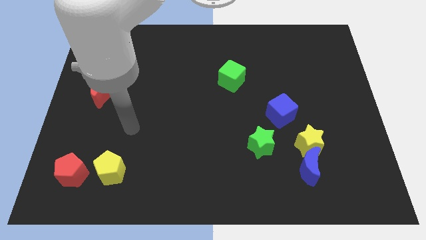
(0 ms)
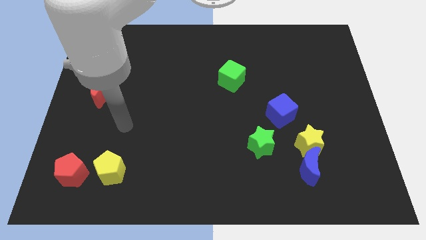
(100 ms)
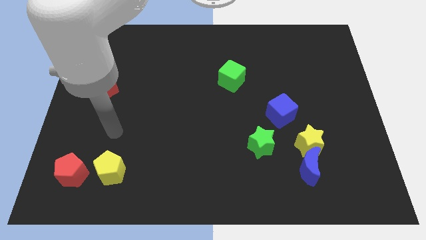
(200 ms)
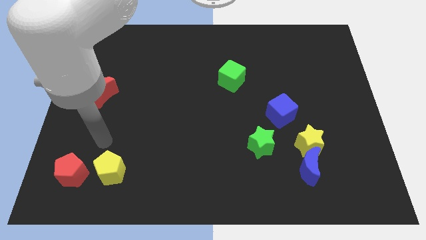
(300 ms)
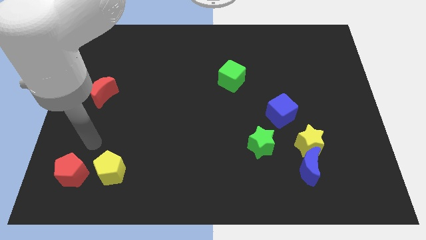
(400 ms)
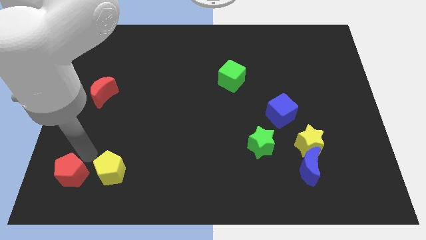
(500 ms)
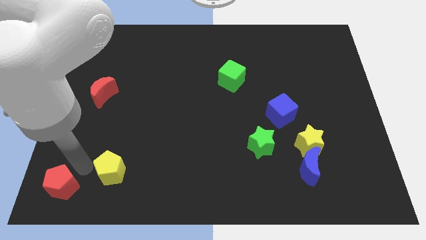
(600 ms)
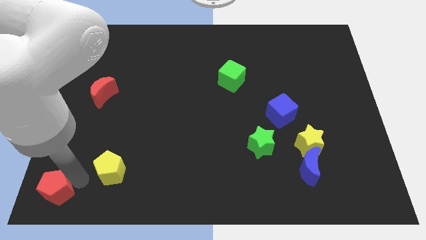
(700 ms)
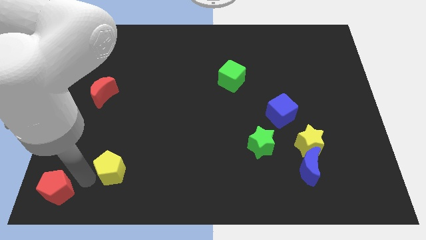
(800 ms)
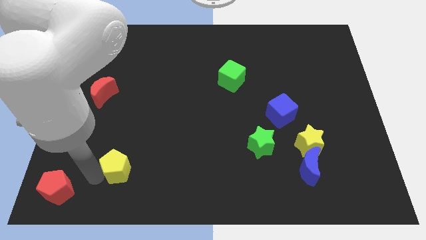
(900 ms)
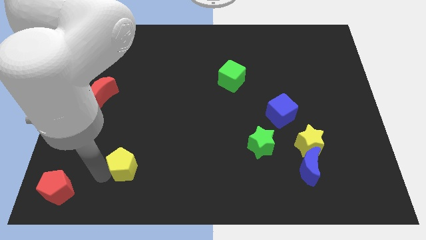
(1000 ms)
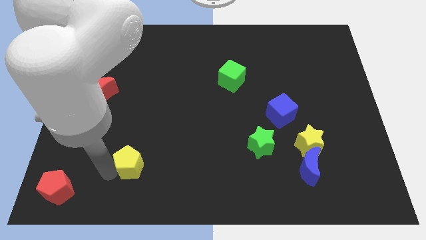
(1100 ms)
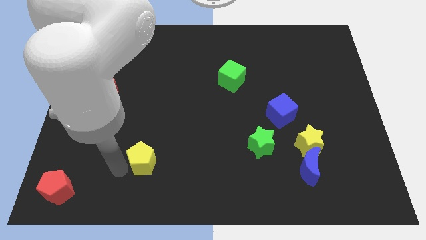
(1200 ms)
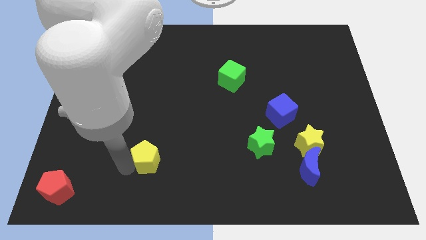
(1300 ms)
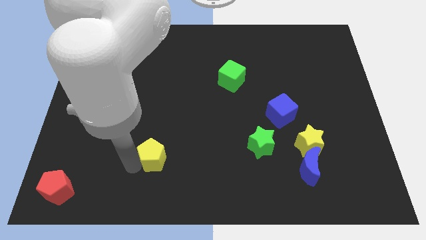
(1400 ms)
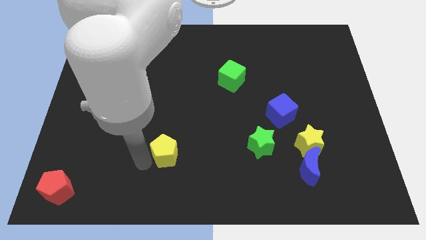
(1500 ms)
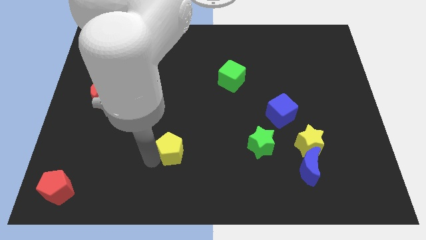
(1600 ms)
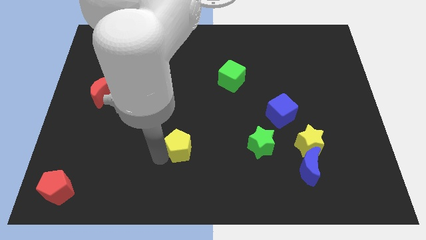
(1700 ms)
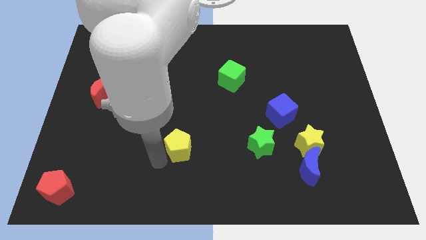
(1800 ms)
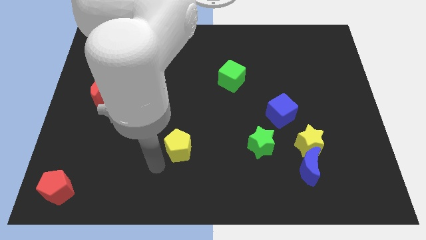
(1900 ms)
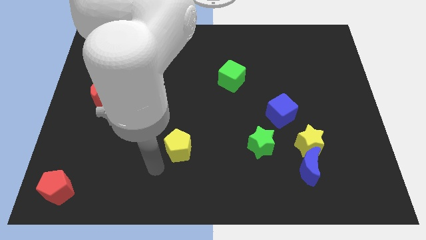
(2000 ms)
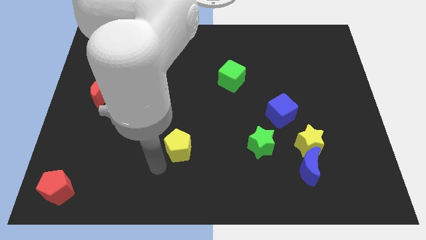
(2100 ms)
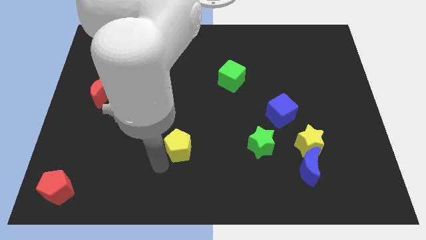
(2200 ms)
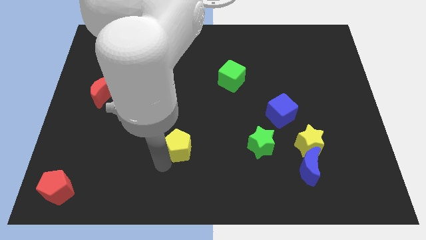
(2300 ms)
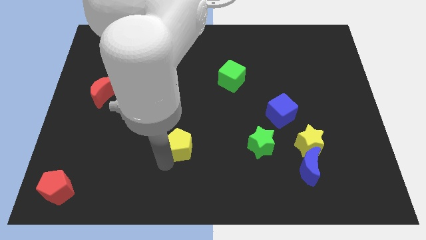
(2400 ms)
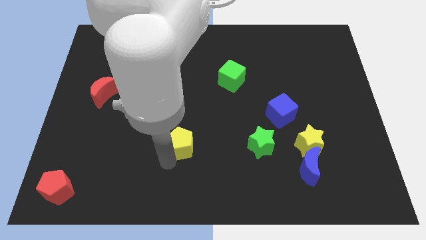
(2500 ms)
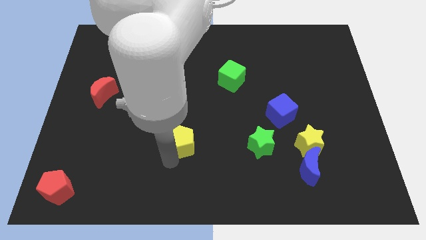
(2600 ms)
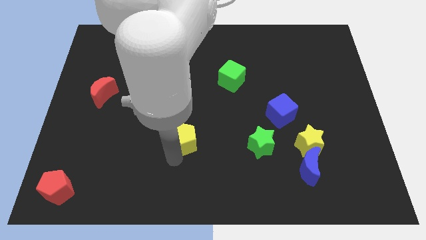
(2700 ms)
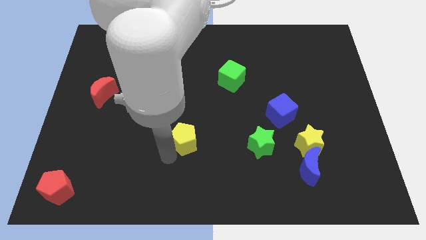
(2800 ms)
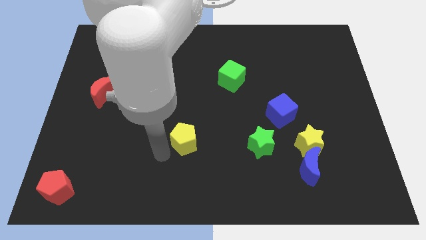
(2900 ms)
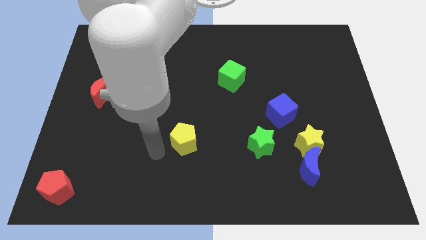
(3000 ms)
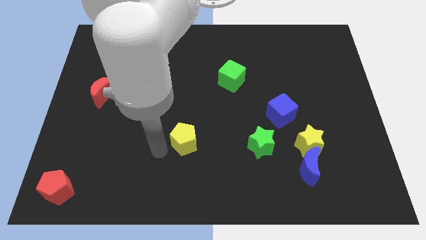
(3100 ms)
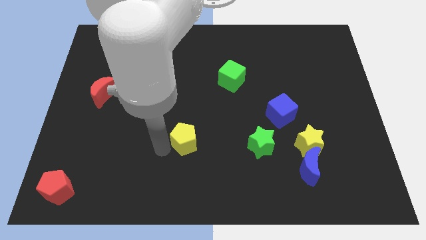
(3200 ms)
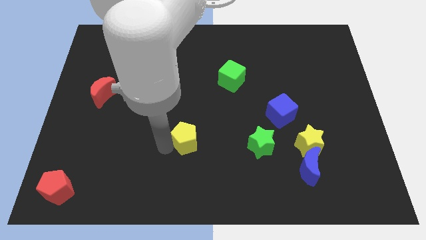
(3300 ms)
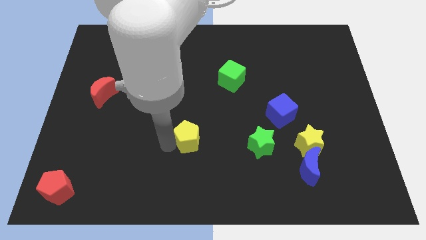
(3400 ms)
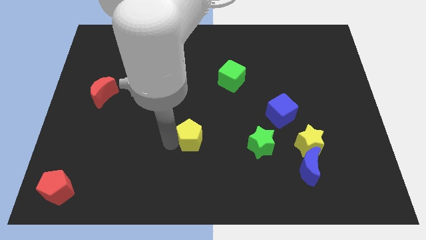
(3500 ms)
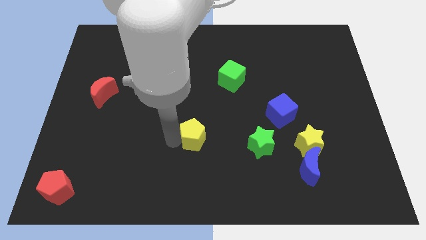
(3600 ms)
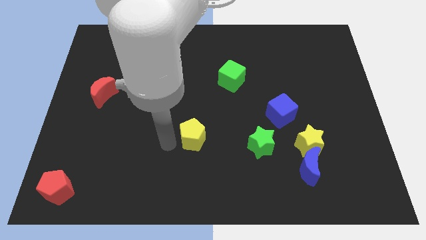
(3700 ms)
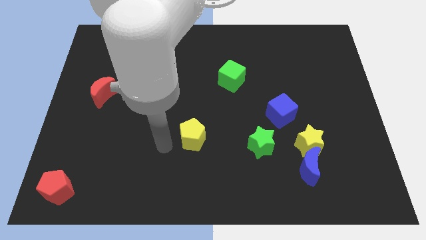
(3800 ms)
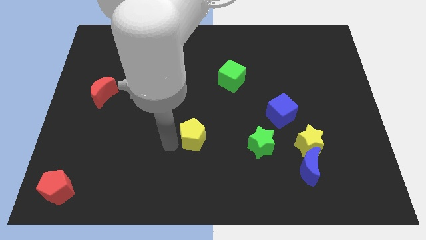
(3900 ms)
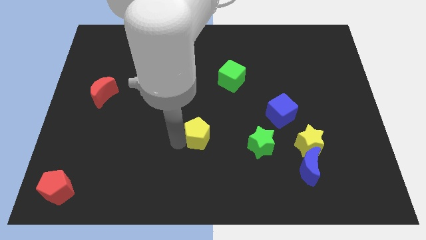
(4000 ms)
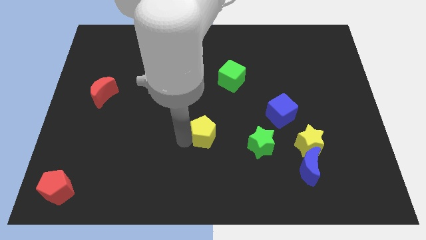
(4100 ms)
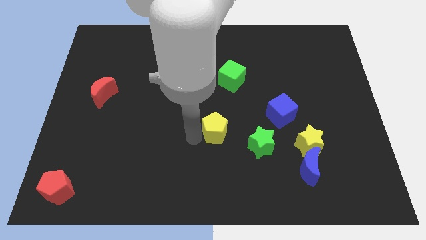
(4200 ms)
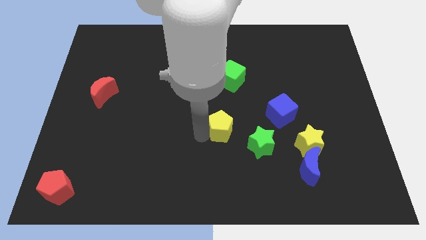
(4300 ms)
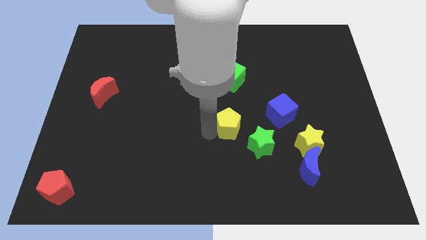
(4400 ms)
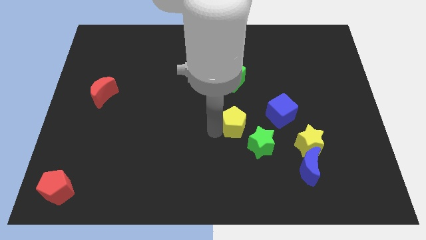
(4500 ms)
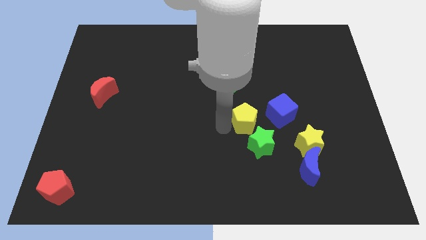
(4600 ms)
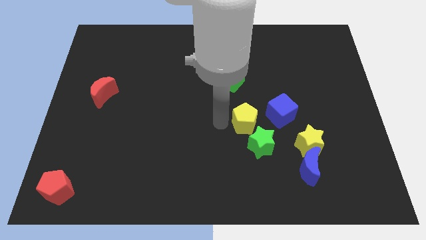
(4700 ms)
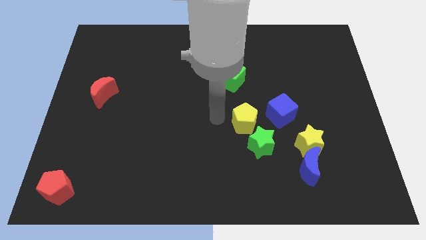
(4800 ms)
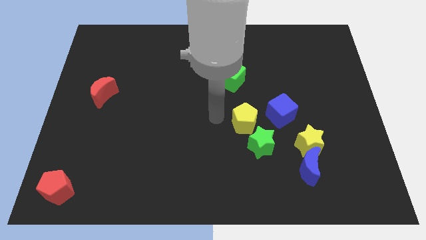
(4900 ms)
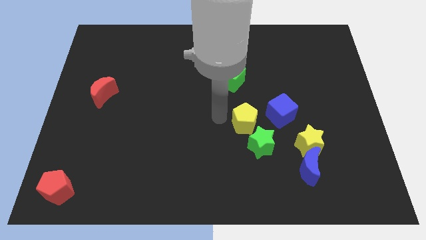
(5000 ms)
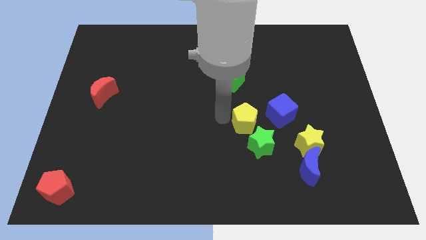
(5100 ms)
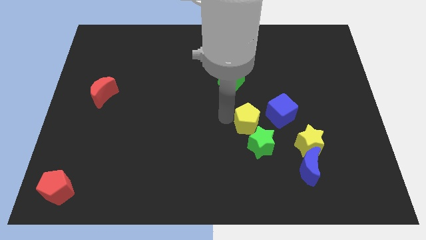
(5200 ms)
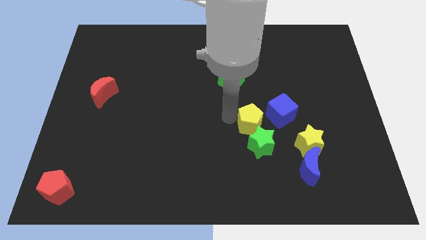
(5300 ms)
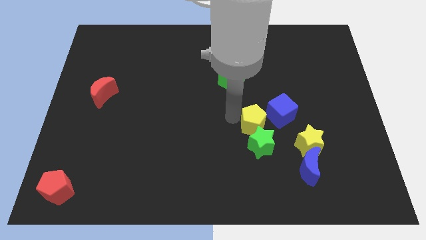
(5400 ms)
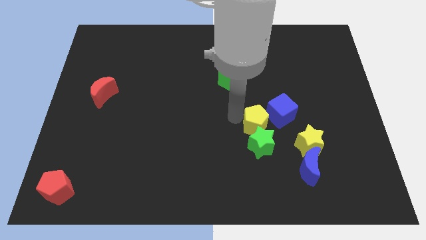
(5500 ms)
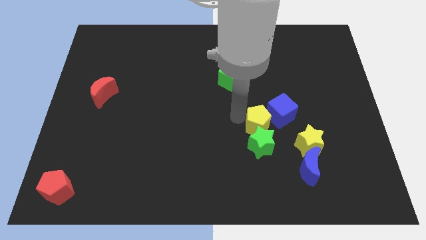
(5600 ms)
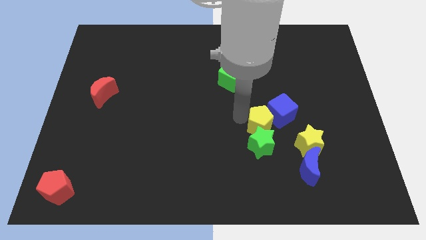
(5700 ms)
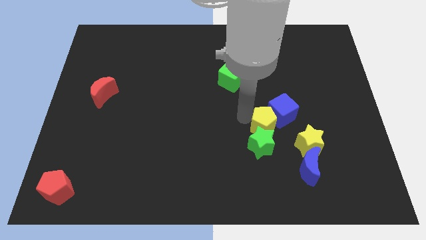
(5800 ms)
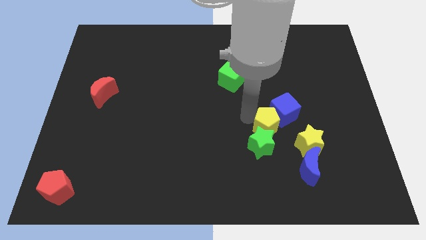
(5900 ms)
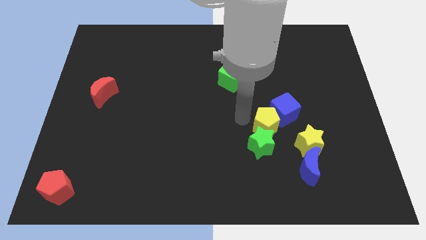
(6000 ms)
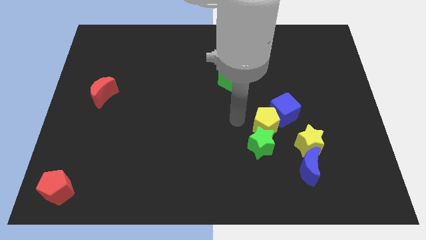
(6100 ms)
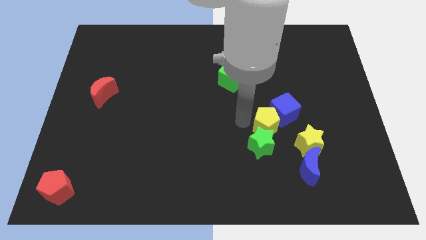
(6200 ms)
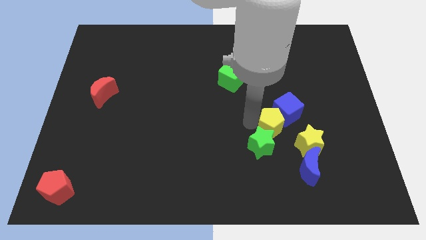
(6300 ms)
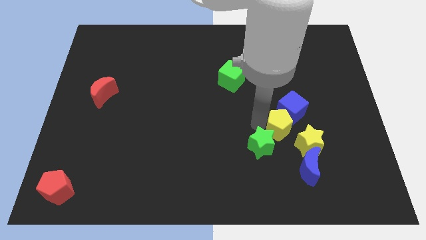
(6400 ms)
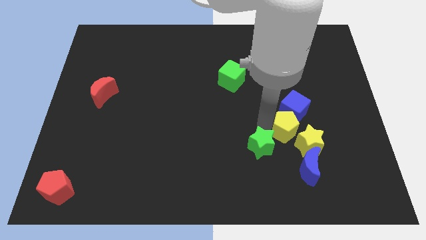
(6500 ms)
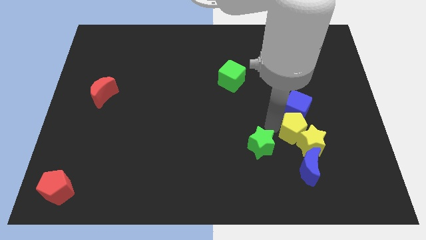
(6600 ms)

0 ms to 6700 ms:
put the yellow pentagon to the yellow star
